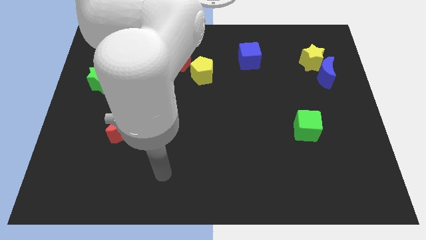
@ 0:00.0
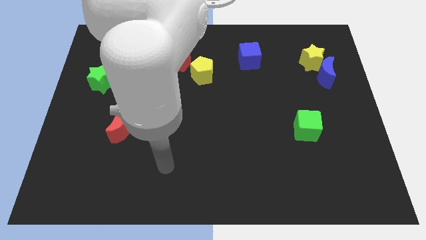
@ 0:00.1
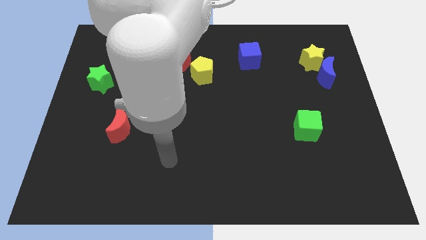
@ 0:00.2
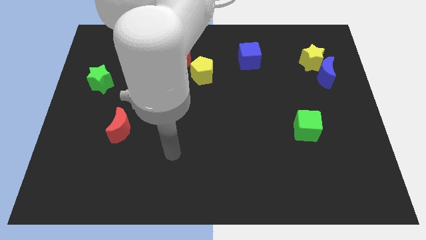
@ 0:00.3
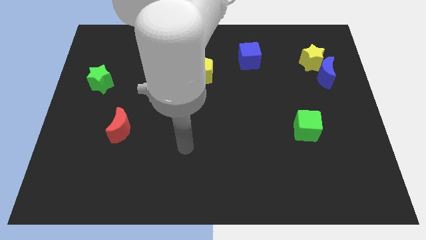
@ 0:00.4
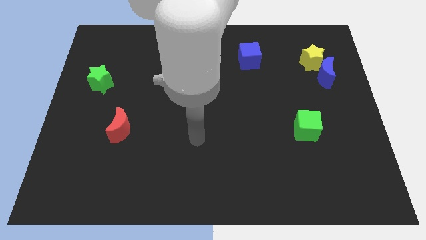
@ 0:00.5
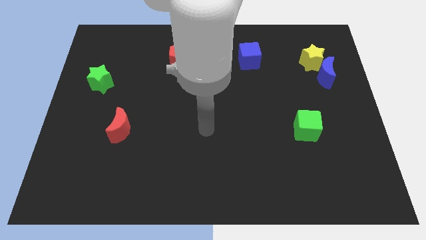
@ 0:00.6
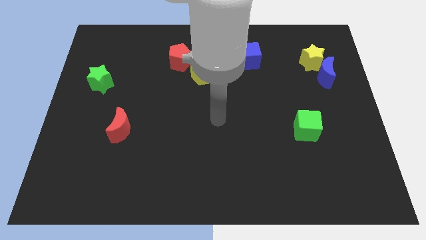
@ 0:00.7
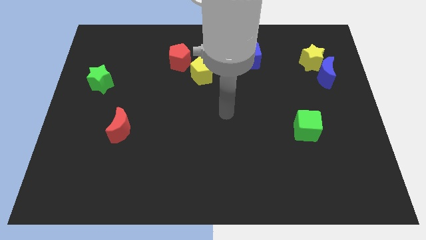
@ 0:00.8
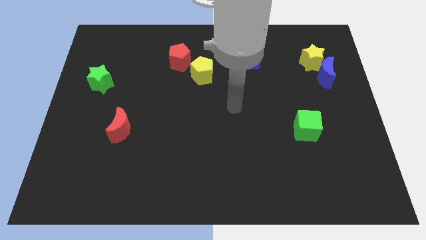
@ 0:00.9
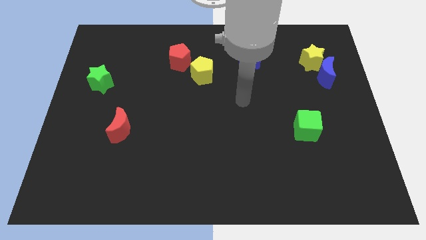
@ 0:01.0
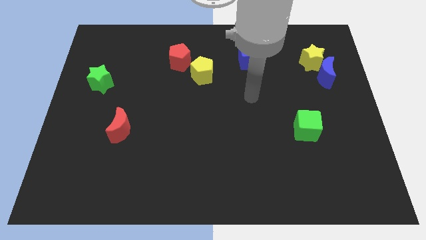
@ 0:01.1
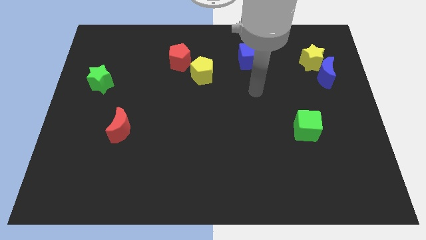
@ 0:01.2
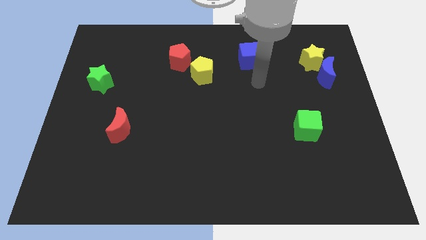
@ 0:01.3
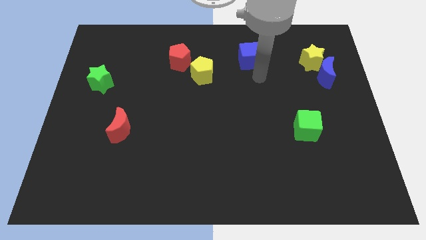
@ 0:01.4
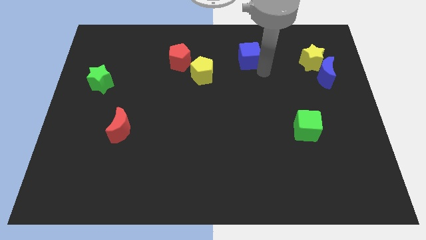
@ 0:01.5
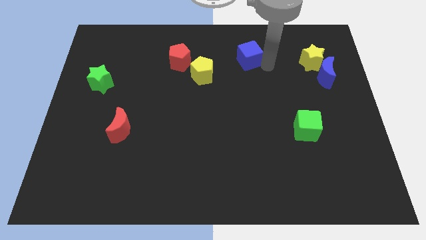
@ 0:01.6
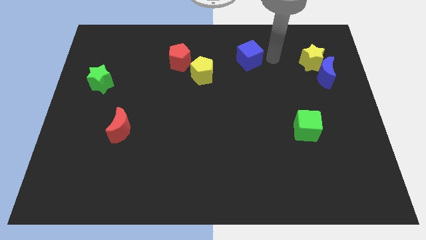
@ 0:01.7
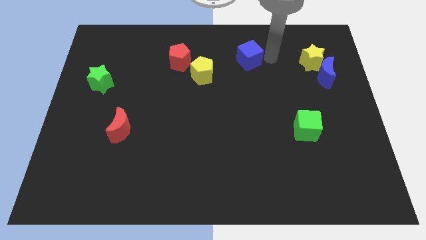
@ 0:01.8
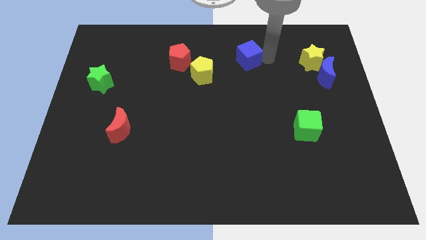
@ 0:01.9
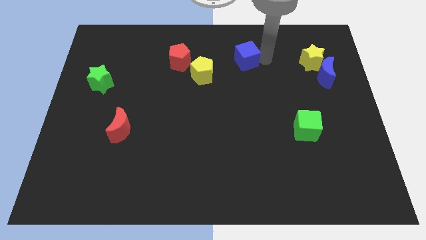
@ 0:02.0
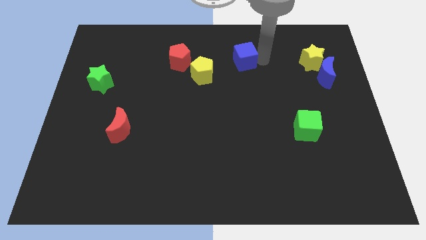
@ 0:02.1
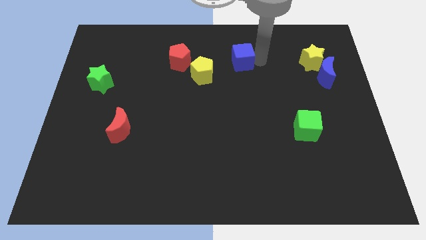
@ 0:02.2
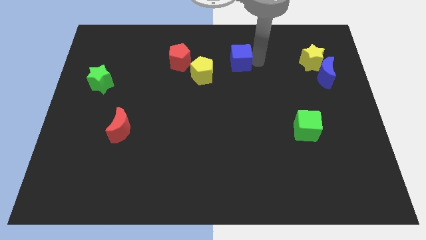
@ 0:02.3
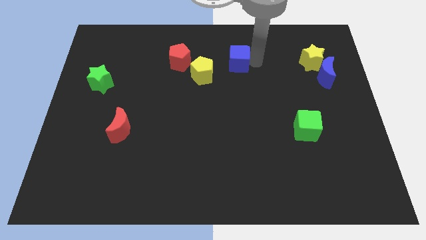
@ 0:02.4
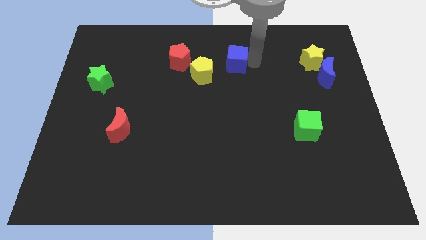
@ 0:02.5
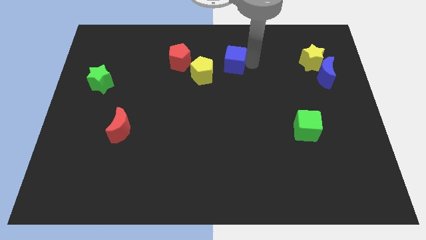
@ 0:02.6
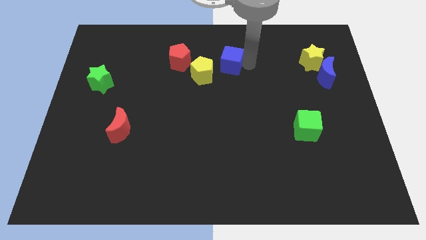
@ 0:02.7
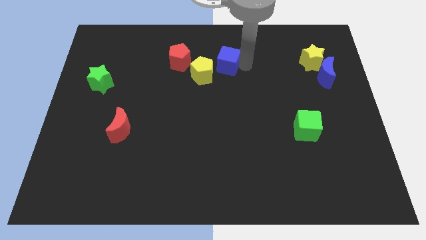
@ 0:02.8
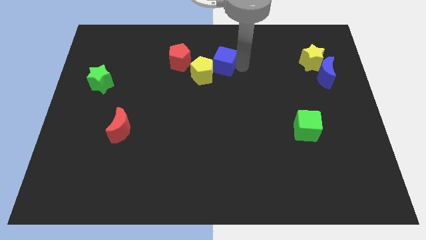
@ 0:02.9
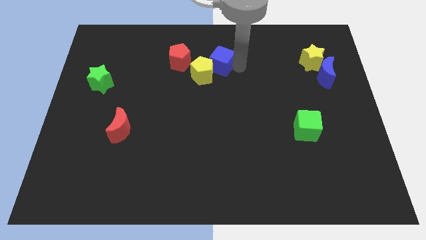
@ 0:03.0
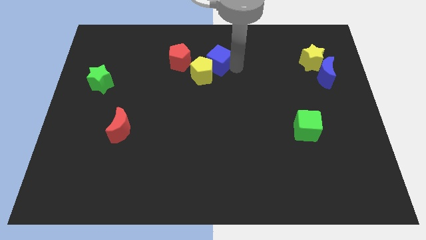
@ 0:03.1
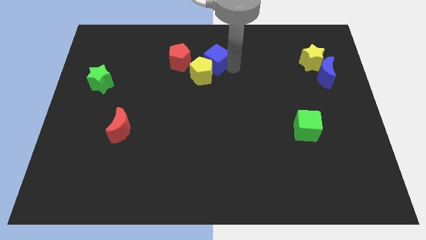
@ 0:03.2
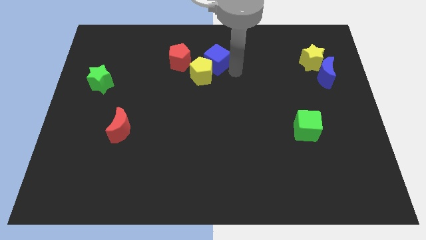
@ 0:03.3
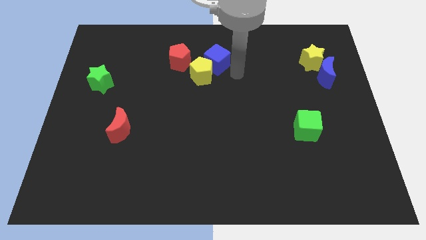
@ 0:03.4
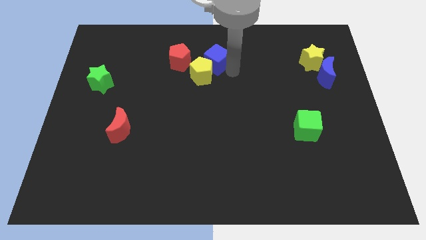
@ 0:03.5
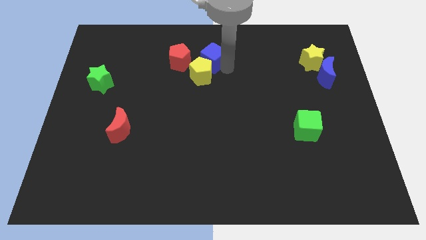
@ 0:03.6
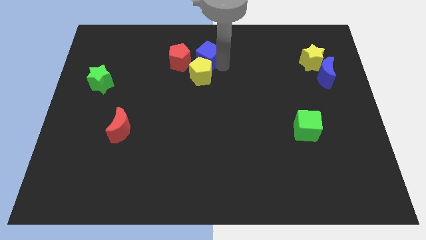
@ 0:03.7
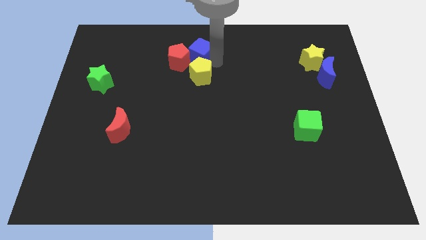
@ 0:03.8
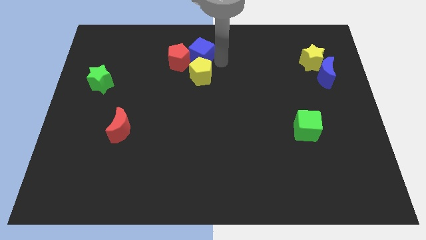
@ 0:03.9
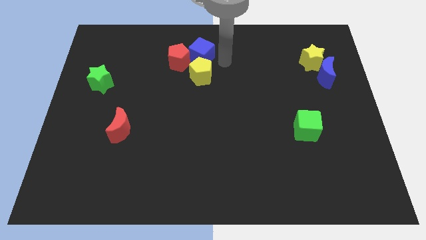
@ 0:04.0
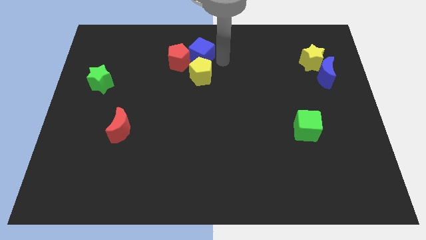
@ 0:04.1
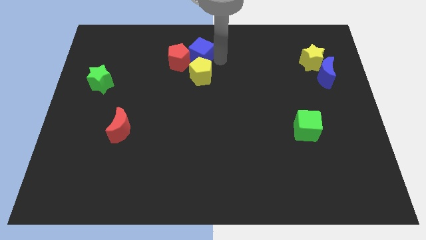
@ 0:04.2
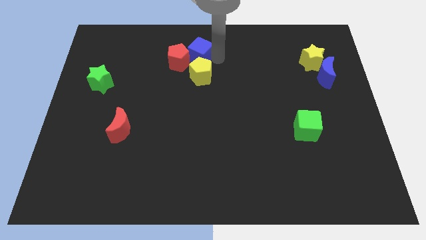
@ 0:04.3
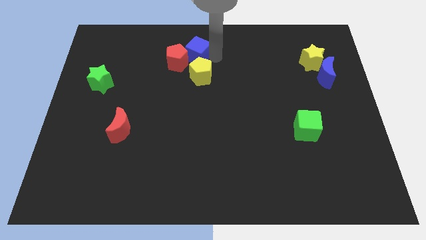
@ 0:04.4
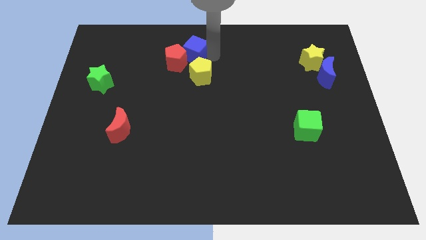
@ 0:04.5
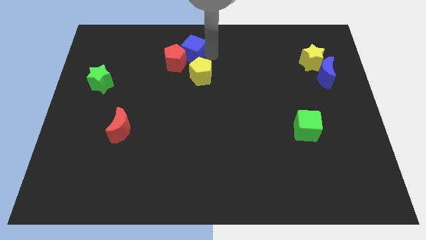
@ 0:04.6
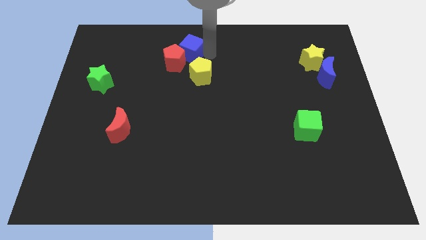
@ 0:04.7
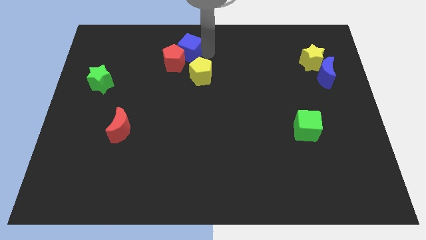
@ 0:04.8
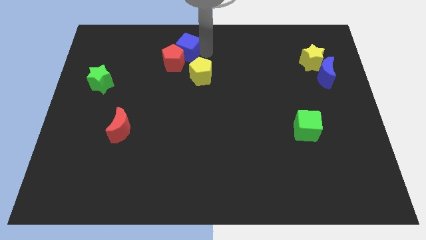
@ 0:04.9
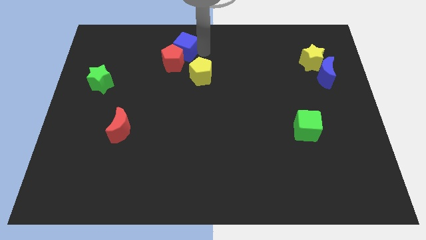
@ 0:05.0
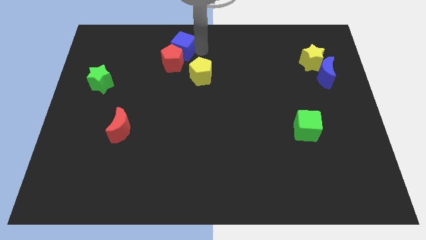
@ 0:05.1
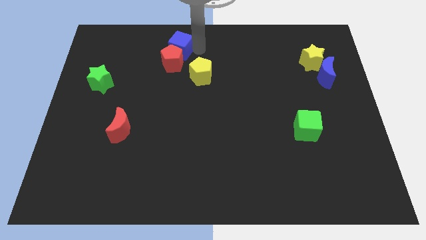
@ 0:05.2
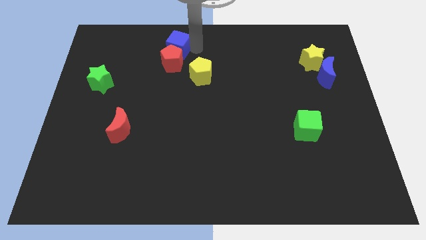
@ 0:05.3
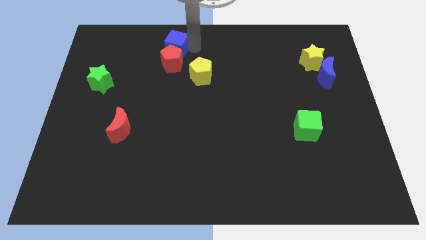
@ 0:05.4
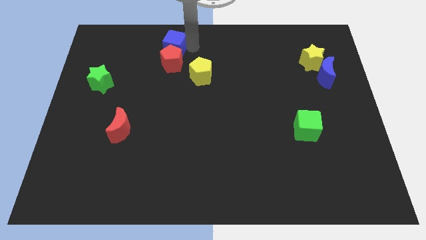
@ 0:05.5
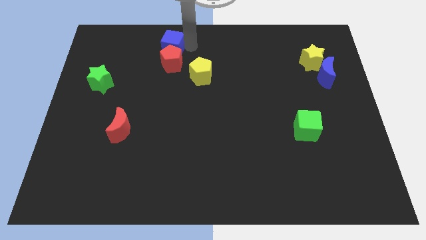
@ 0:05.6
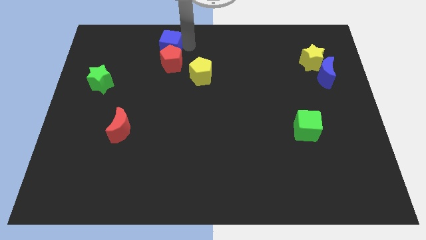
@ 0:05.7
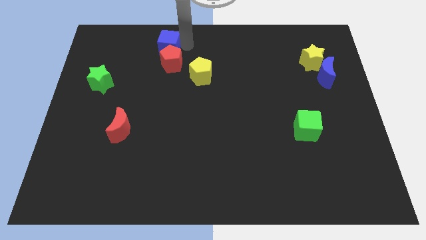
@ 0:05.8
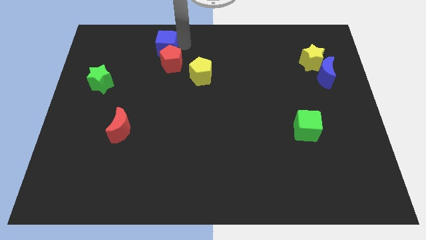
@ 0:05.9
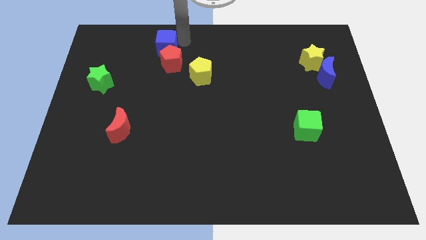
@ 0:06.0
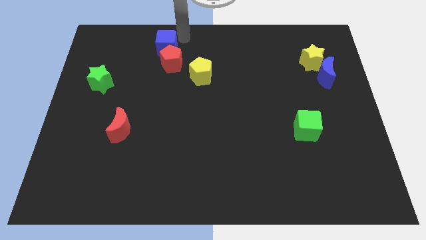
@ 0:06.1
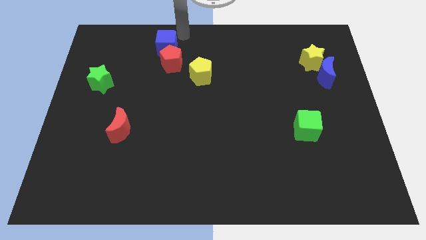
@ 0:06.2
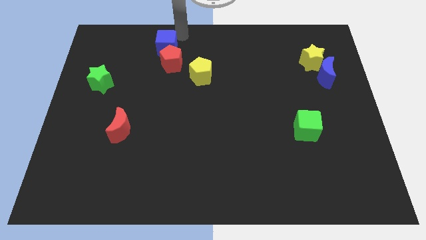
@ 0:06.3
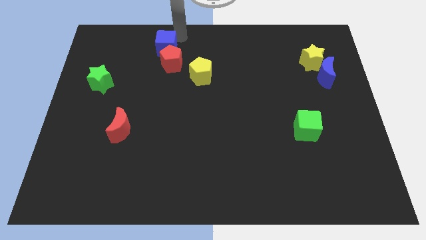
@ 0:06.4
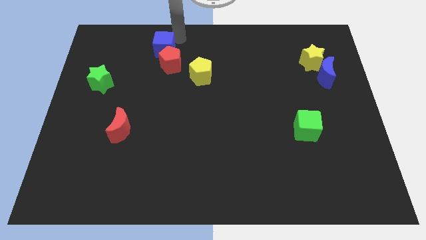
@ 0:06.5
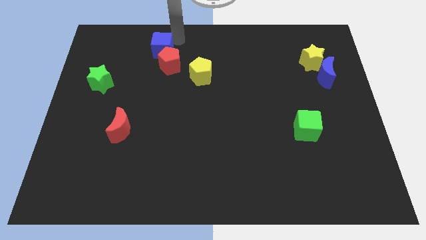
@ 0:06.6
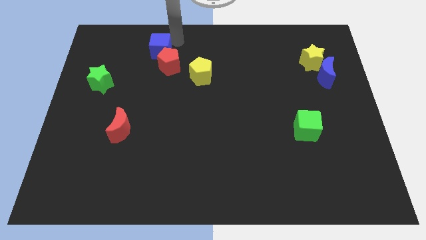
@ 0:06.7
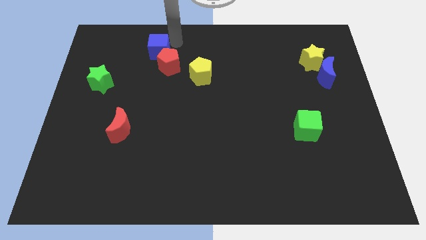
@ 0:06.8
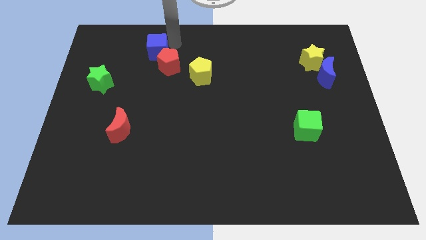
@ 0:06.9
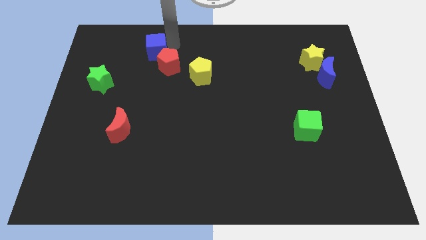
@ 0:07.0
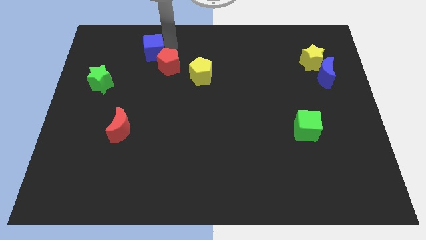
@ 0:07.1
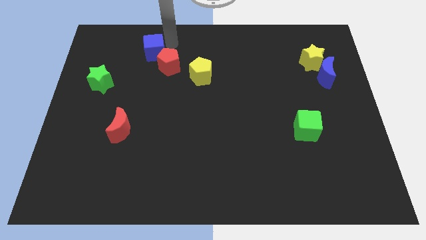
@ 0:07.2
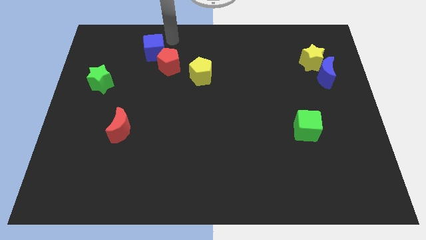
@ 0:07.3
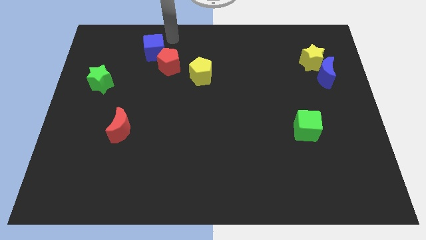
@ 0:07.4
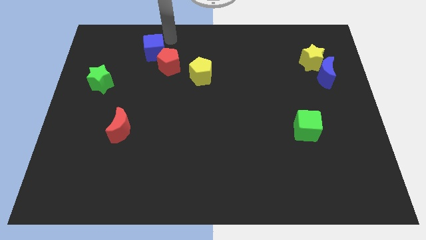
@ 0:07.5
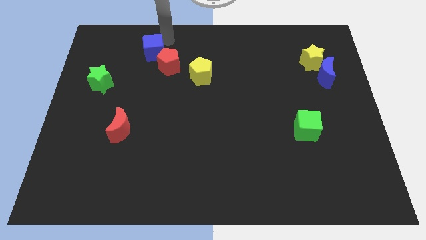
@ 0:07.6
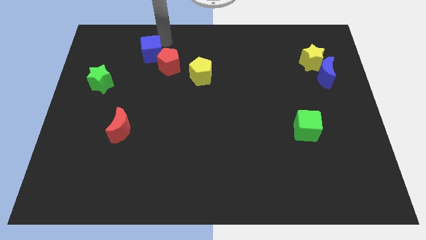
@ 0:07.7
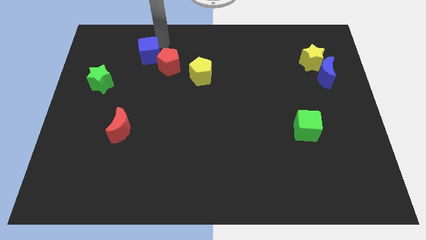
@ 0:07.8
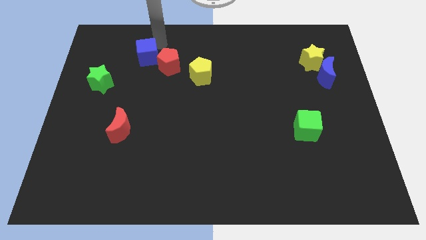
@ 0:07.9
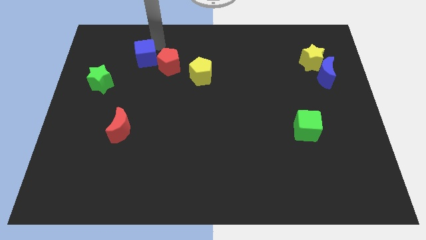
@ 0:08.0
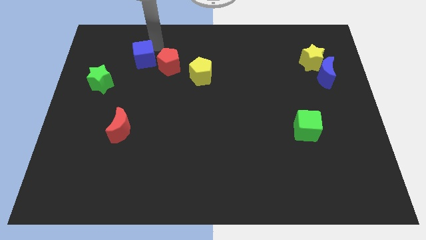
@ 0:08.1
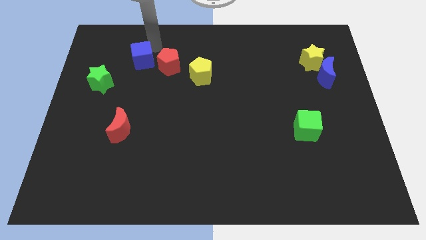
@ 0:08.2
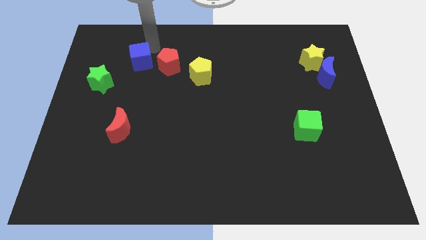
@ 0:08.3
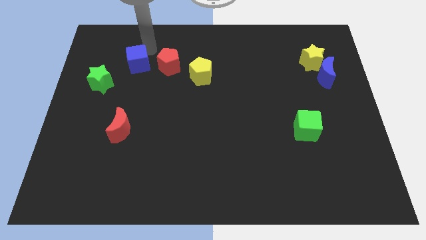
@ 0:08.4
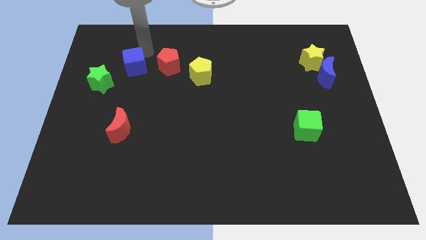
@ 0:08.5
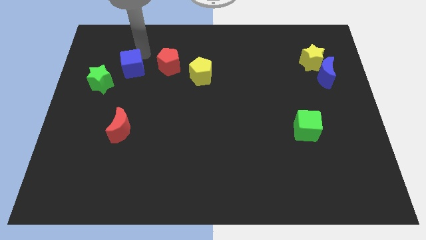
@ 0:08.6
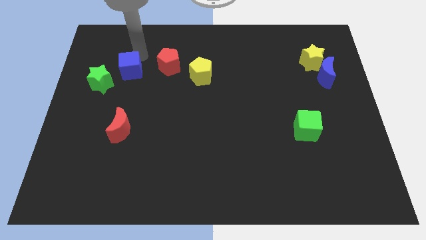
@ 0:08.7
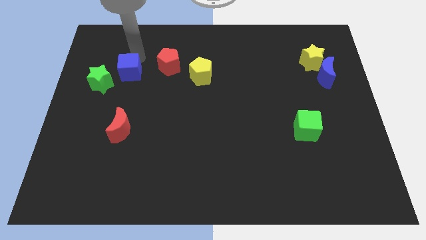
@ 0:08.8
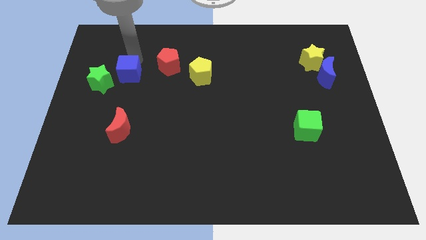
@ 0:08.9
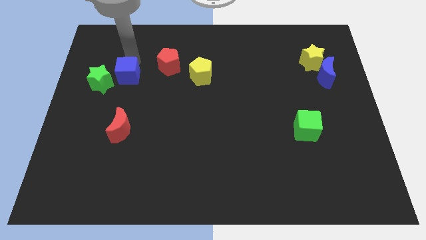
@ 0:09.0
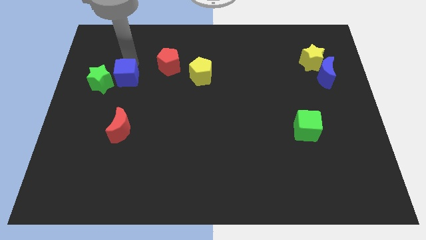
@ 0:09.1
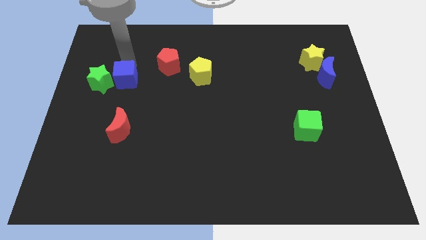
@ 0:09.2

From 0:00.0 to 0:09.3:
slide the blue cube towards the green star
